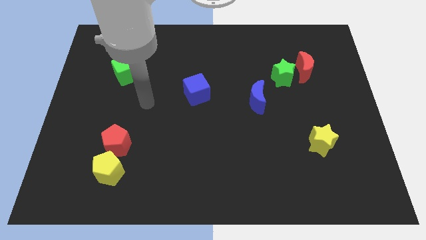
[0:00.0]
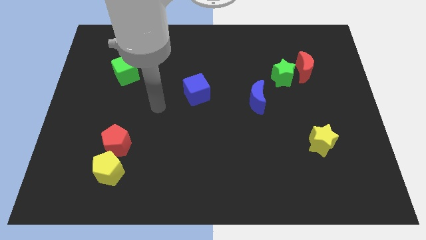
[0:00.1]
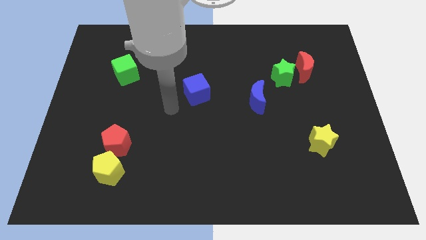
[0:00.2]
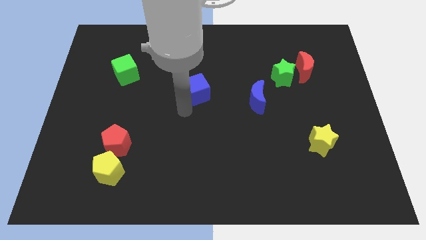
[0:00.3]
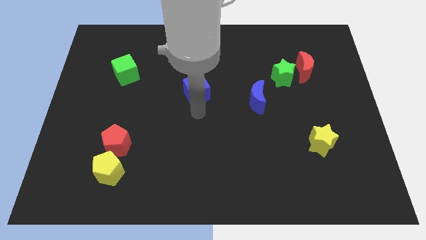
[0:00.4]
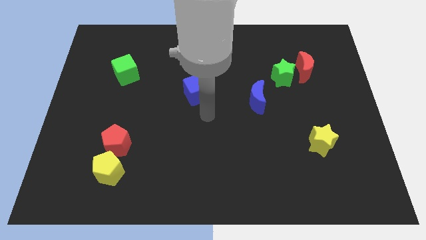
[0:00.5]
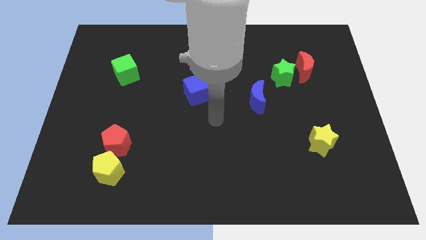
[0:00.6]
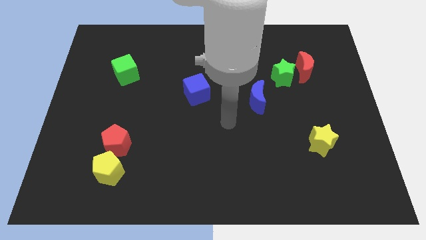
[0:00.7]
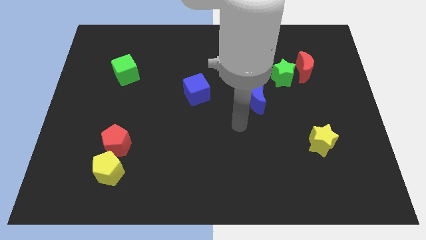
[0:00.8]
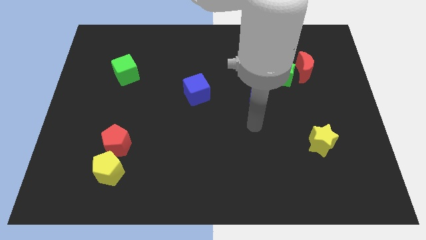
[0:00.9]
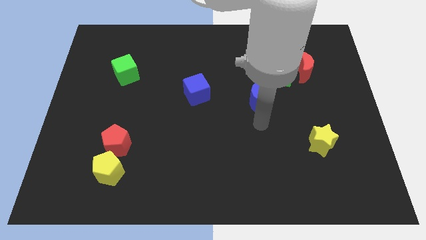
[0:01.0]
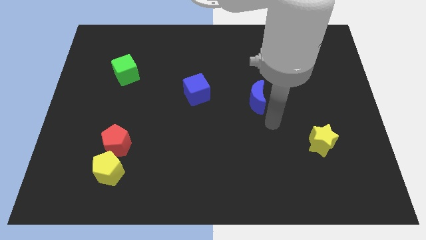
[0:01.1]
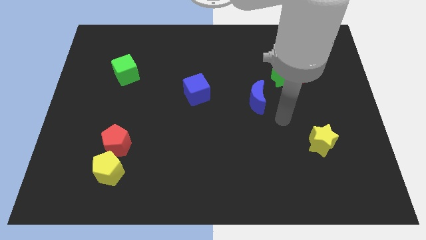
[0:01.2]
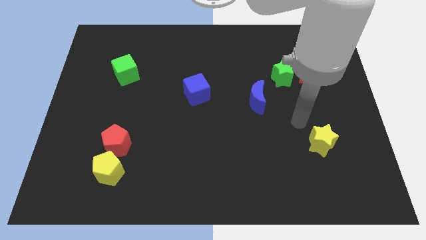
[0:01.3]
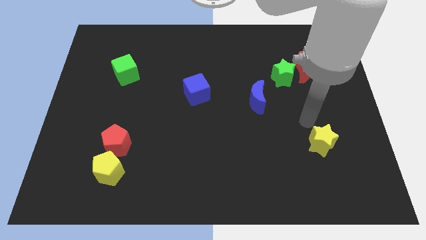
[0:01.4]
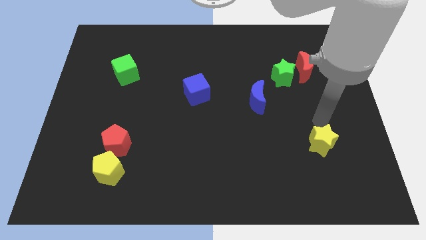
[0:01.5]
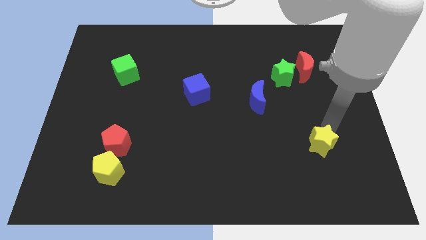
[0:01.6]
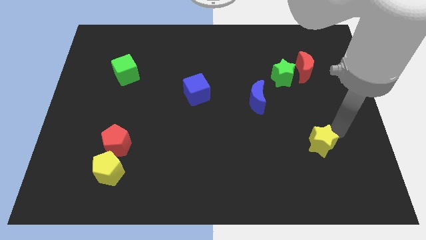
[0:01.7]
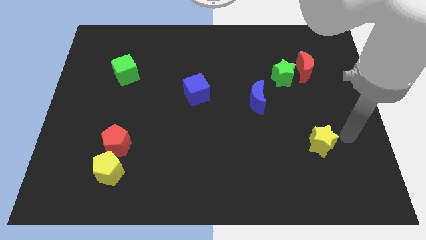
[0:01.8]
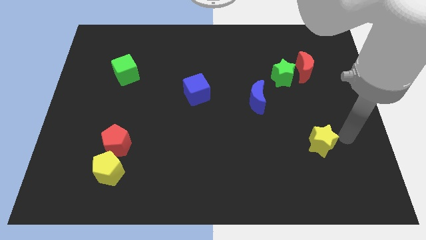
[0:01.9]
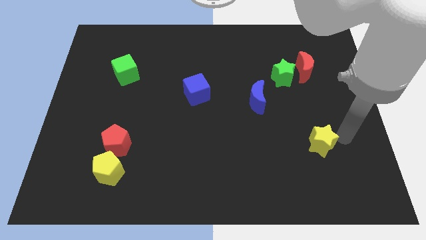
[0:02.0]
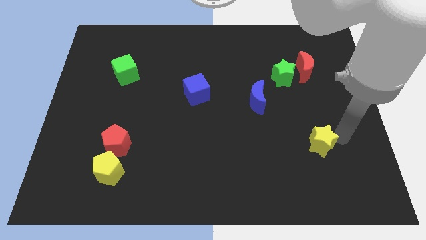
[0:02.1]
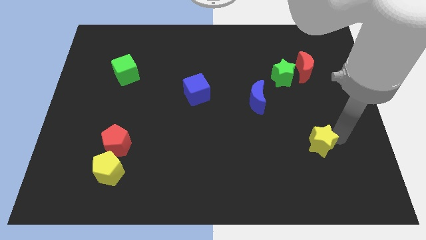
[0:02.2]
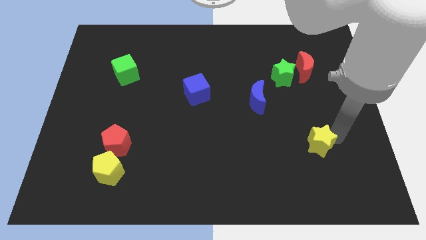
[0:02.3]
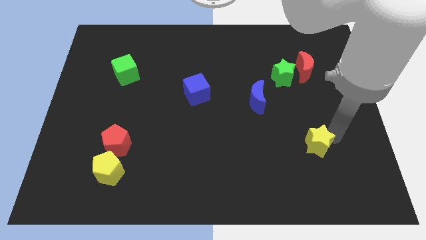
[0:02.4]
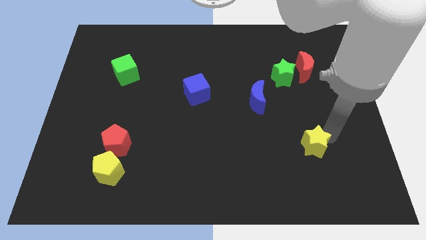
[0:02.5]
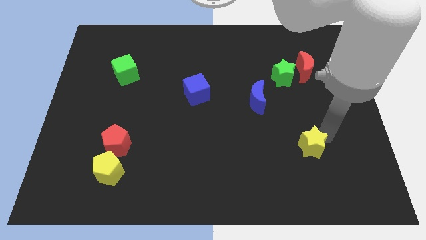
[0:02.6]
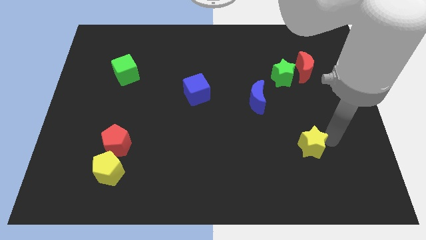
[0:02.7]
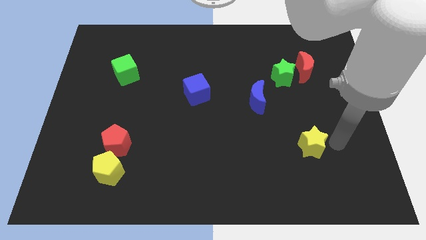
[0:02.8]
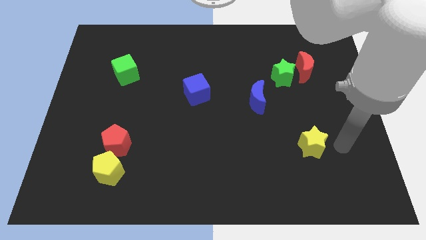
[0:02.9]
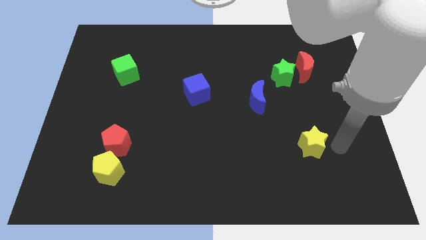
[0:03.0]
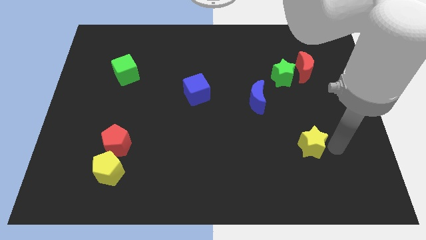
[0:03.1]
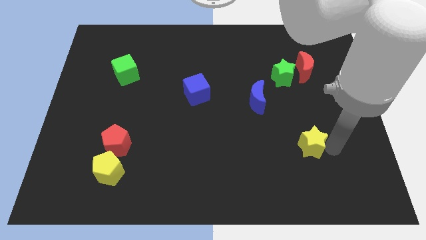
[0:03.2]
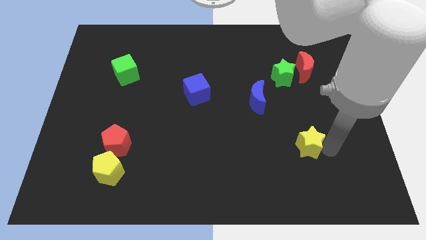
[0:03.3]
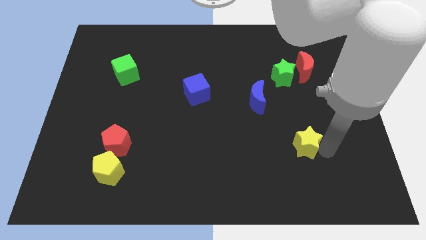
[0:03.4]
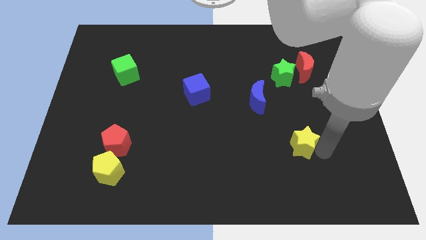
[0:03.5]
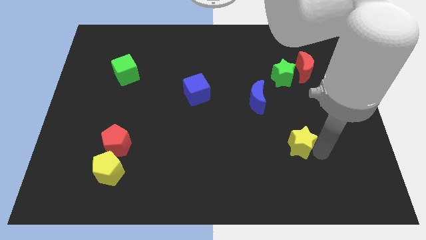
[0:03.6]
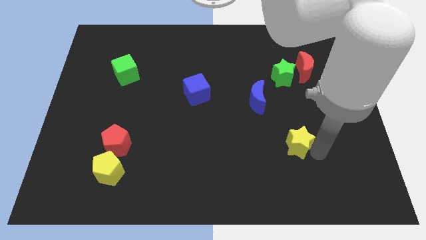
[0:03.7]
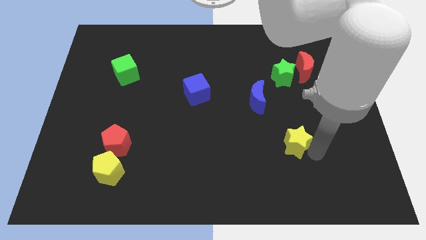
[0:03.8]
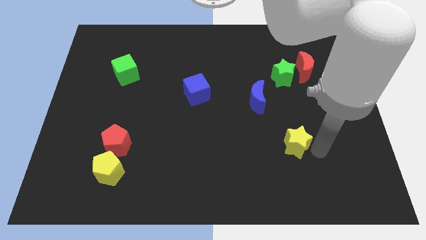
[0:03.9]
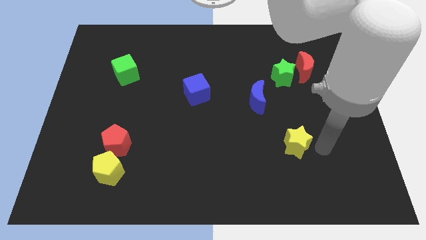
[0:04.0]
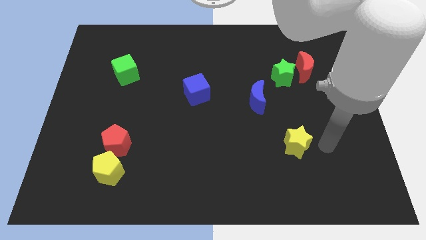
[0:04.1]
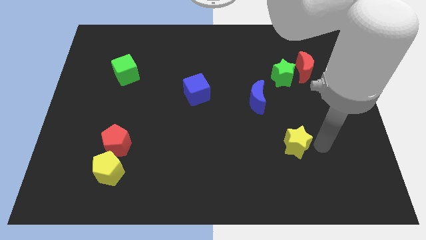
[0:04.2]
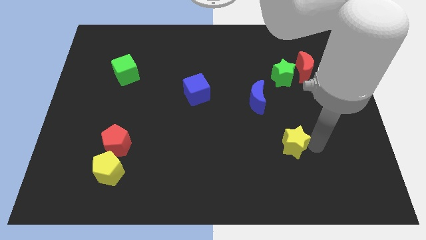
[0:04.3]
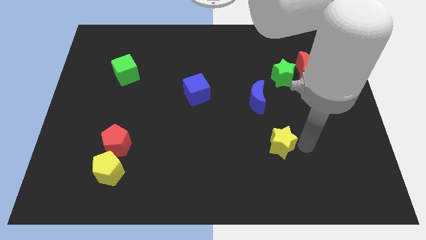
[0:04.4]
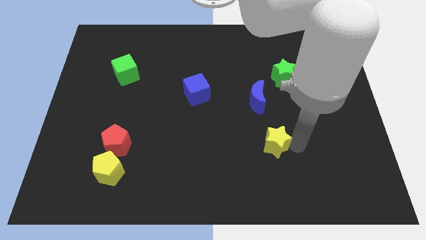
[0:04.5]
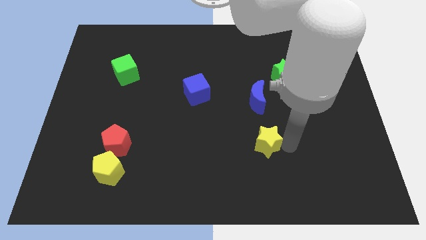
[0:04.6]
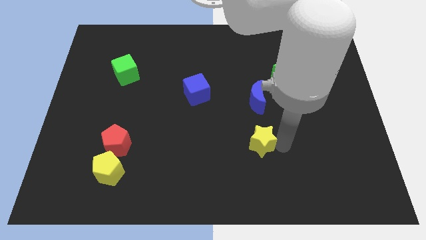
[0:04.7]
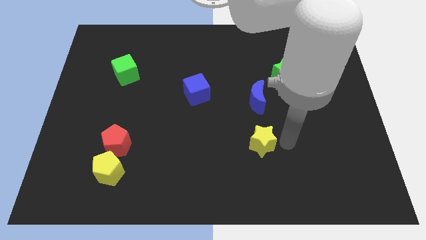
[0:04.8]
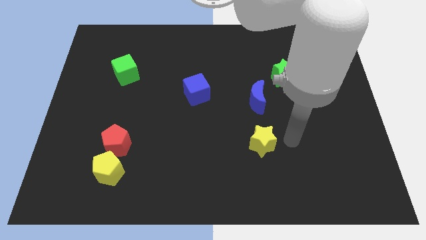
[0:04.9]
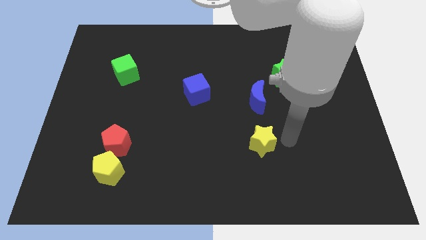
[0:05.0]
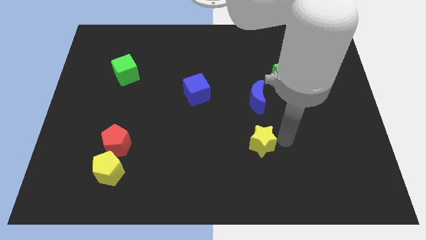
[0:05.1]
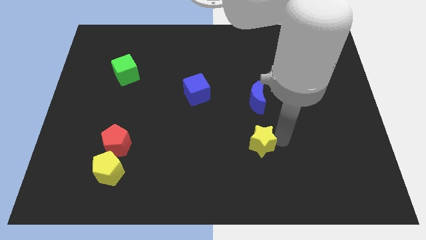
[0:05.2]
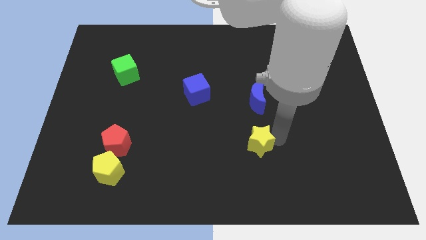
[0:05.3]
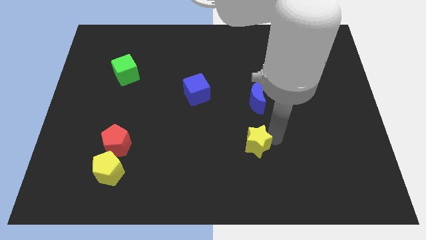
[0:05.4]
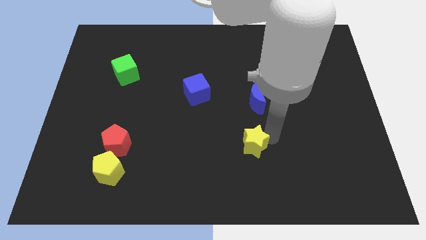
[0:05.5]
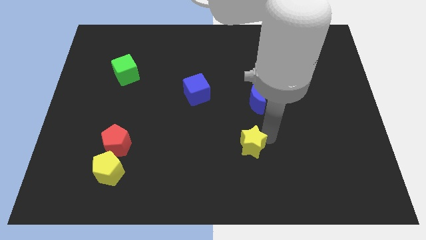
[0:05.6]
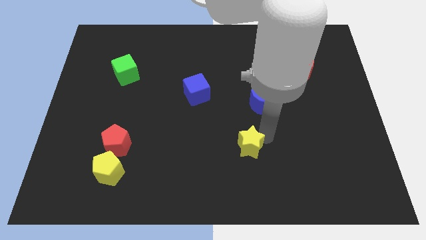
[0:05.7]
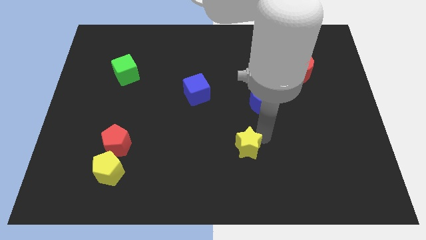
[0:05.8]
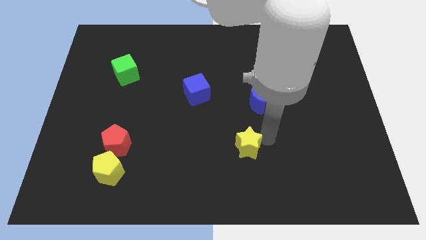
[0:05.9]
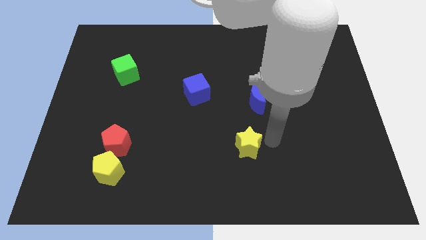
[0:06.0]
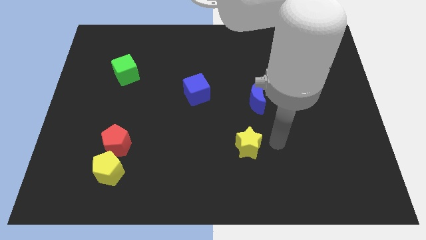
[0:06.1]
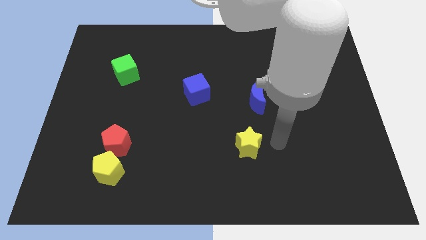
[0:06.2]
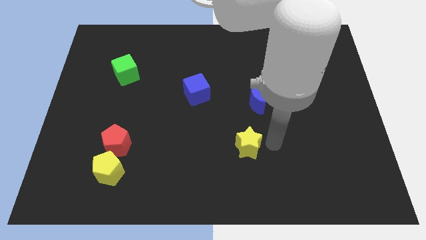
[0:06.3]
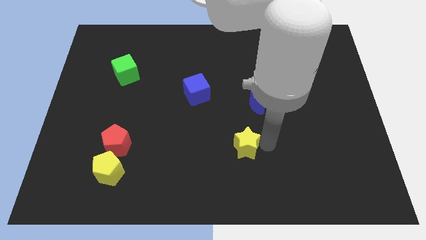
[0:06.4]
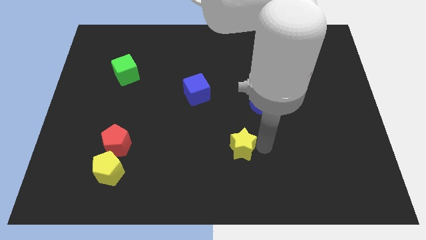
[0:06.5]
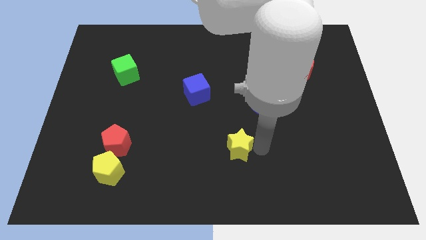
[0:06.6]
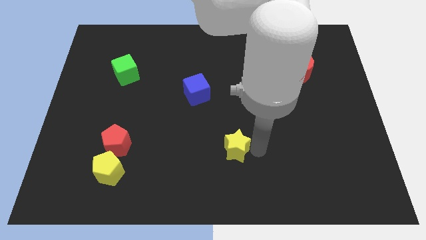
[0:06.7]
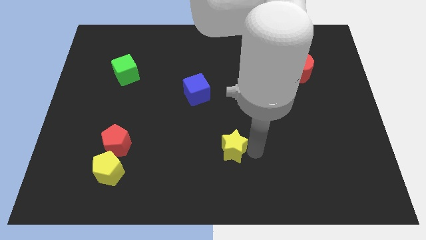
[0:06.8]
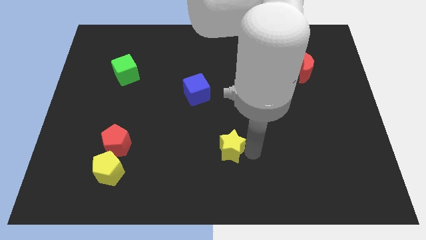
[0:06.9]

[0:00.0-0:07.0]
move the yellow star left

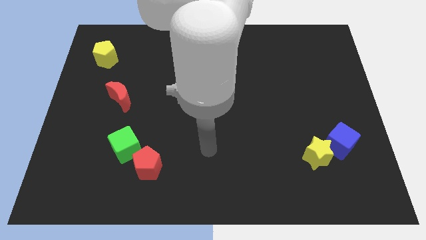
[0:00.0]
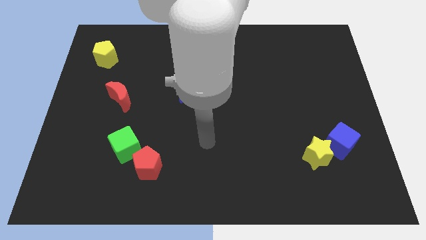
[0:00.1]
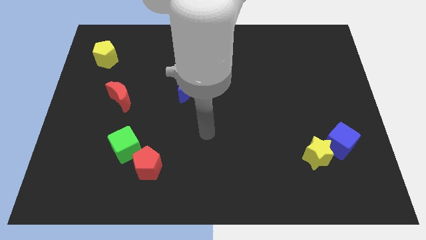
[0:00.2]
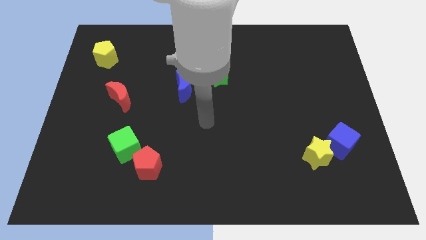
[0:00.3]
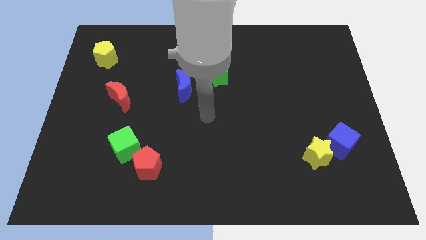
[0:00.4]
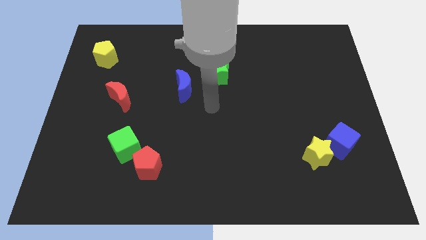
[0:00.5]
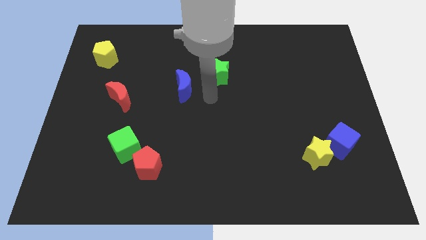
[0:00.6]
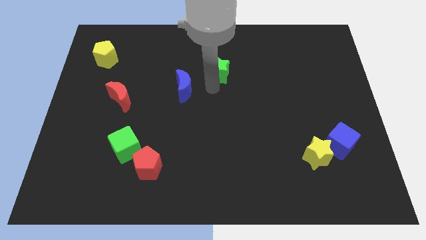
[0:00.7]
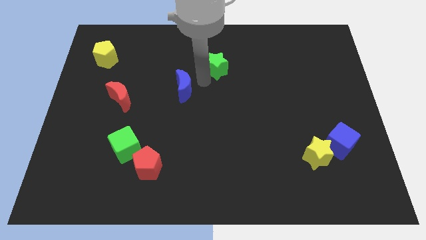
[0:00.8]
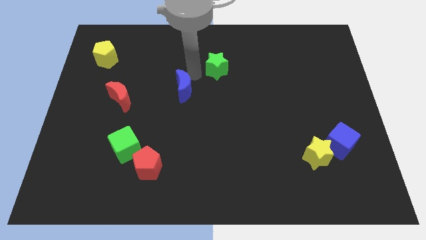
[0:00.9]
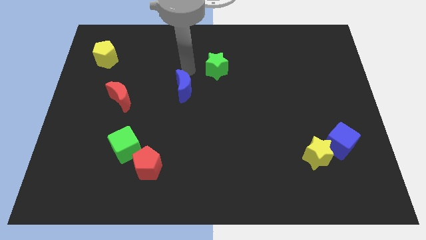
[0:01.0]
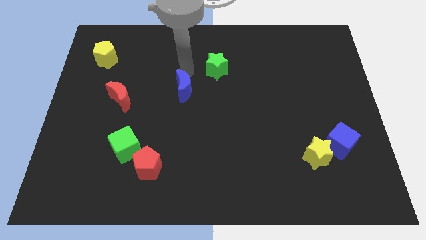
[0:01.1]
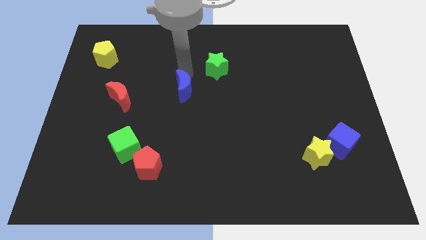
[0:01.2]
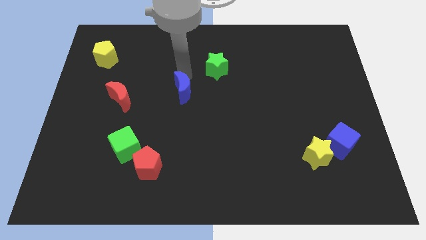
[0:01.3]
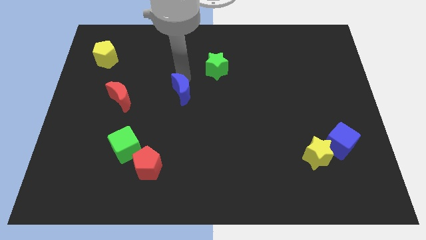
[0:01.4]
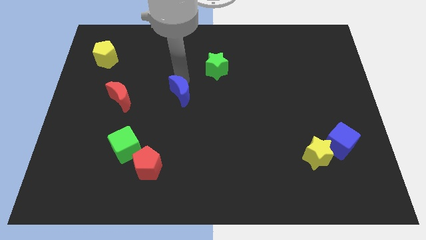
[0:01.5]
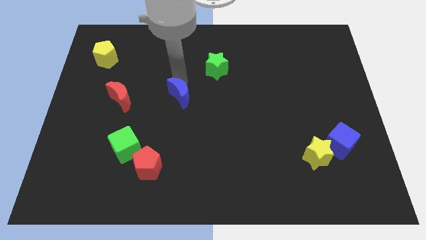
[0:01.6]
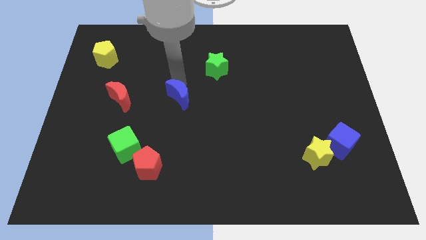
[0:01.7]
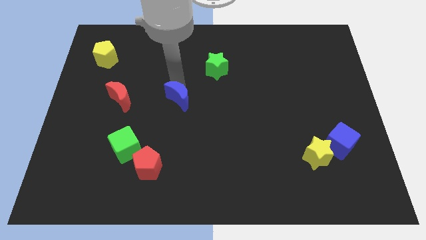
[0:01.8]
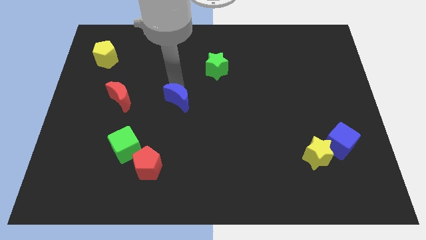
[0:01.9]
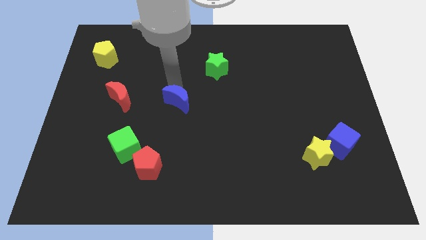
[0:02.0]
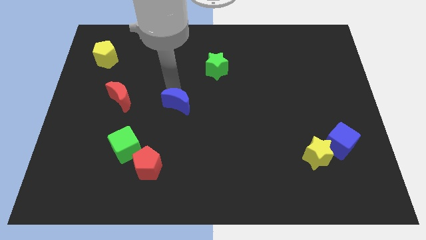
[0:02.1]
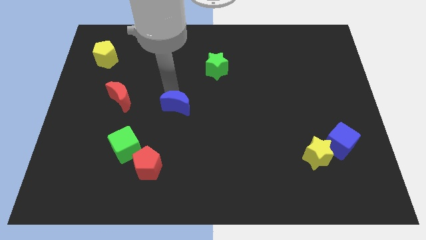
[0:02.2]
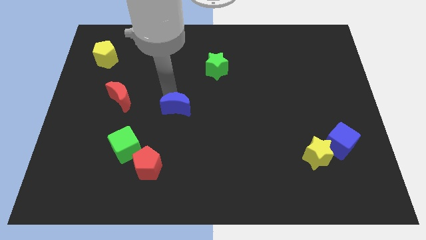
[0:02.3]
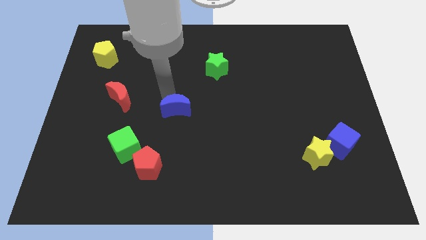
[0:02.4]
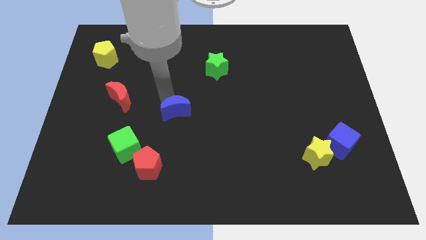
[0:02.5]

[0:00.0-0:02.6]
move the blue moon down a little
